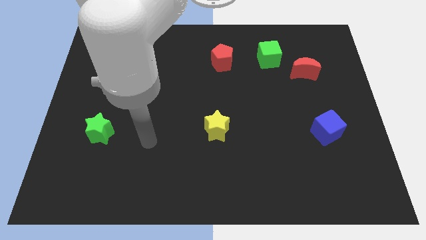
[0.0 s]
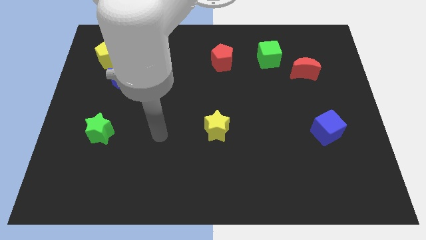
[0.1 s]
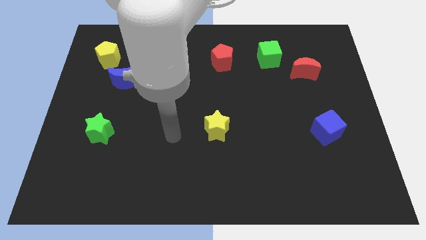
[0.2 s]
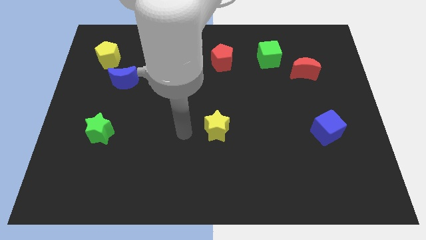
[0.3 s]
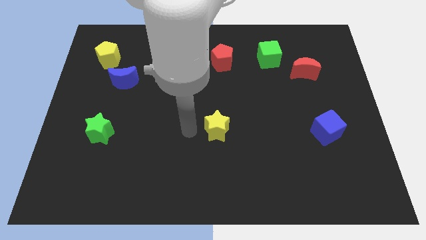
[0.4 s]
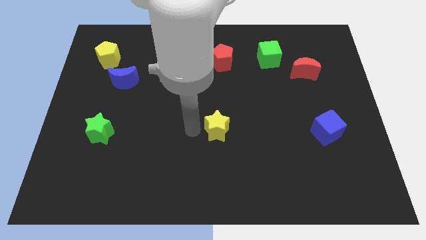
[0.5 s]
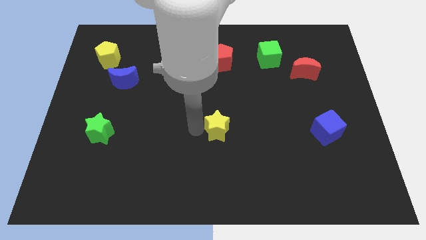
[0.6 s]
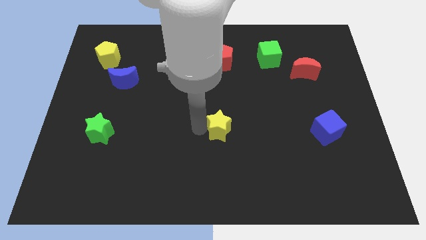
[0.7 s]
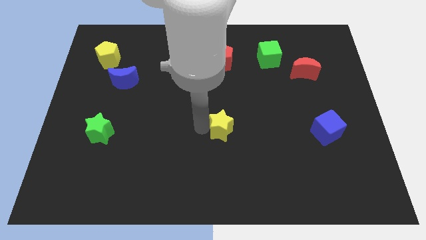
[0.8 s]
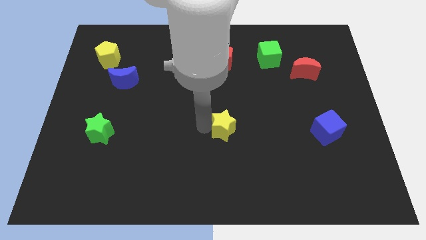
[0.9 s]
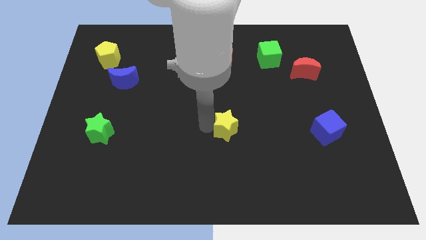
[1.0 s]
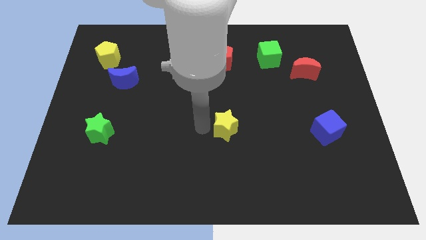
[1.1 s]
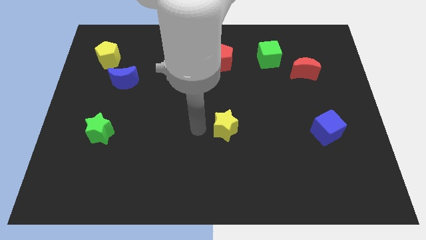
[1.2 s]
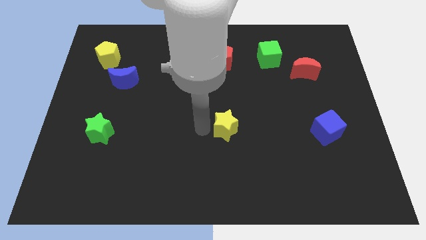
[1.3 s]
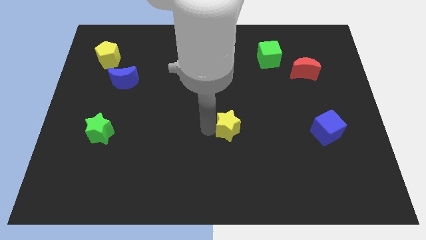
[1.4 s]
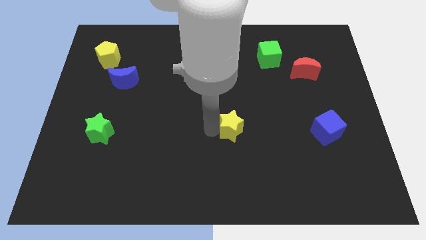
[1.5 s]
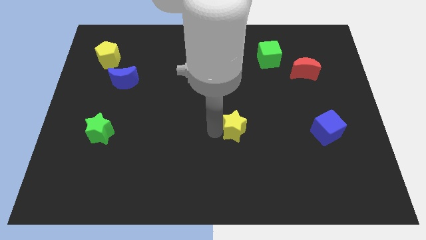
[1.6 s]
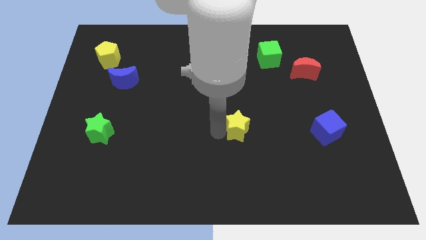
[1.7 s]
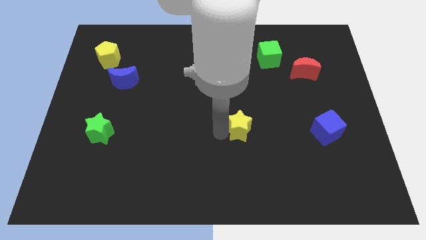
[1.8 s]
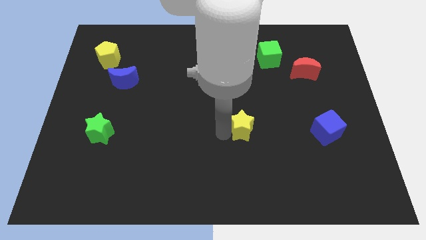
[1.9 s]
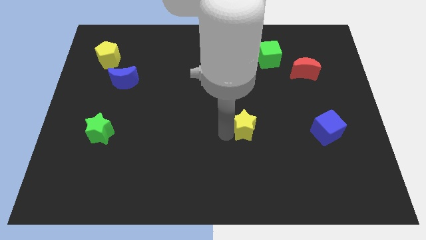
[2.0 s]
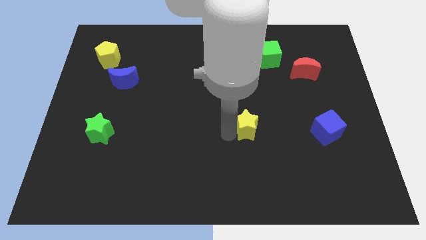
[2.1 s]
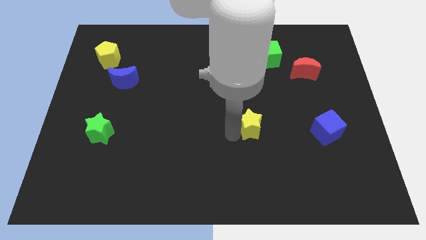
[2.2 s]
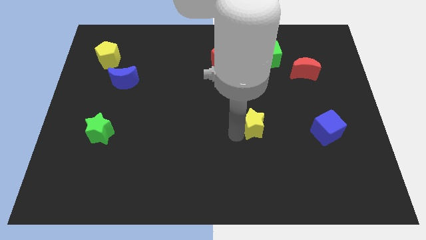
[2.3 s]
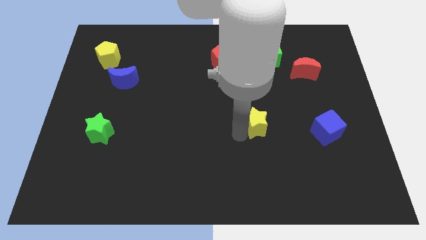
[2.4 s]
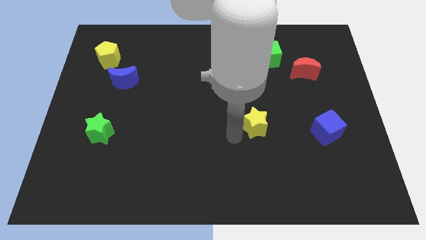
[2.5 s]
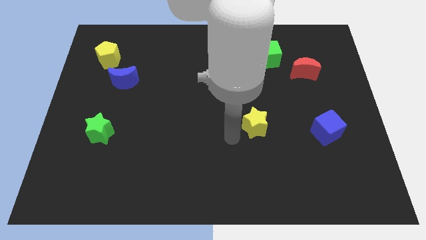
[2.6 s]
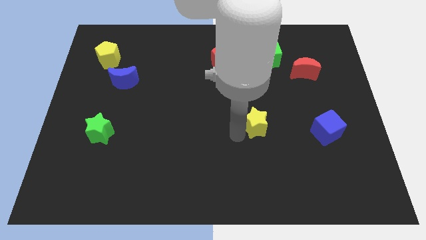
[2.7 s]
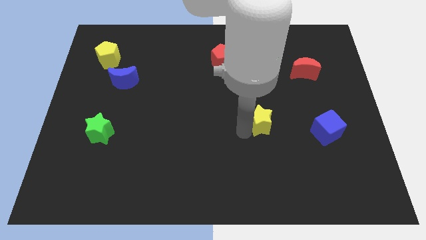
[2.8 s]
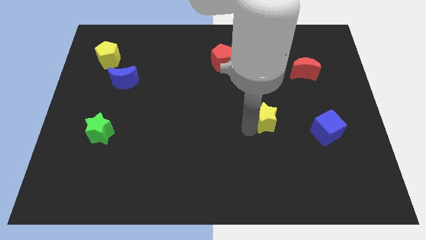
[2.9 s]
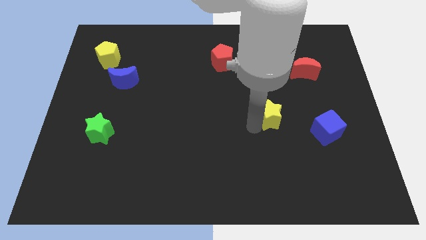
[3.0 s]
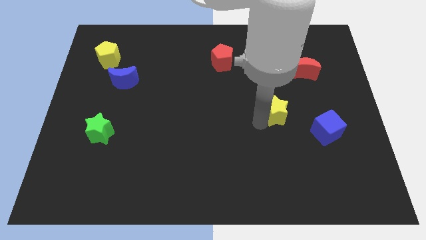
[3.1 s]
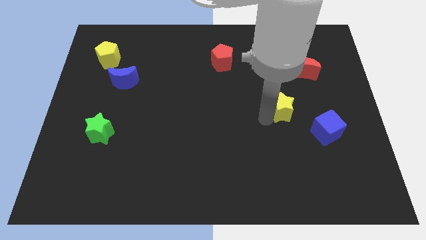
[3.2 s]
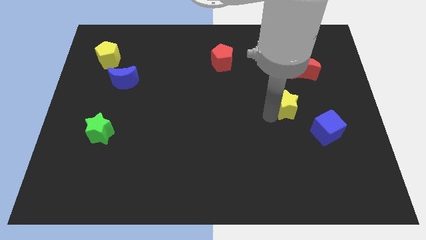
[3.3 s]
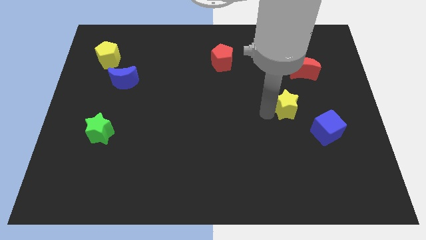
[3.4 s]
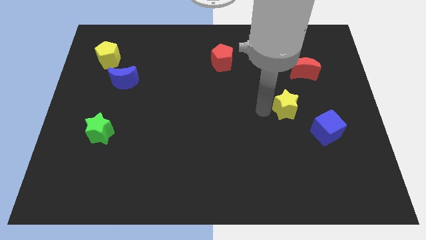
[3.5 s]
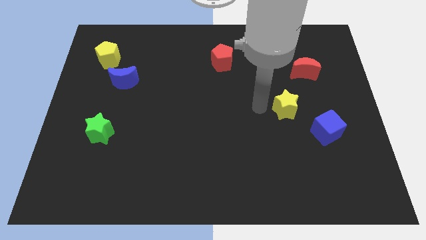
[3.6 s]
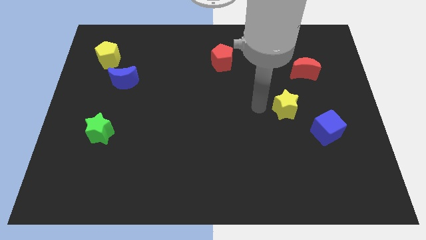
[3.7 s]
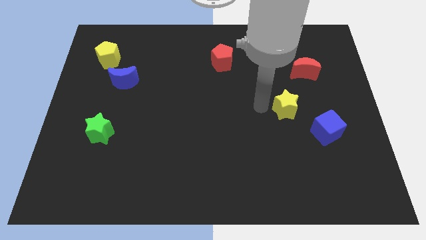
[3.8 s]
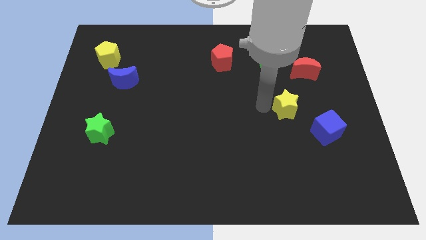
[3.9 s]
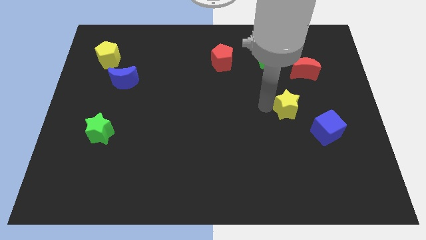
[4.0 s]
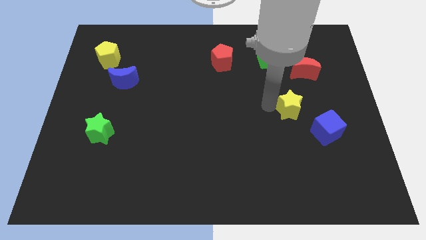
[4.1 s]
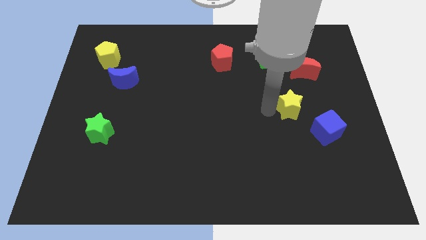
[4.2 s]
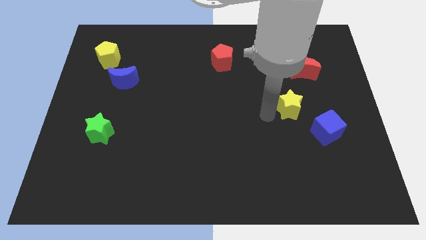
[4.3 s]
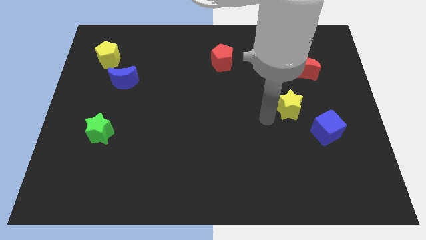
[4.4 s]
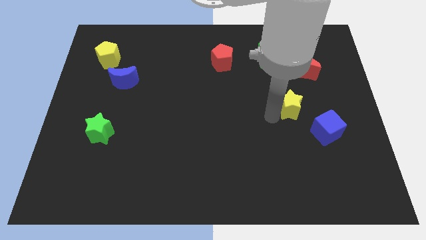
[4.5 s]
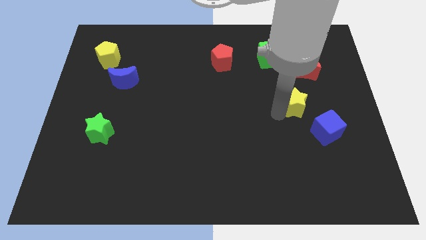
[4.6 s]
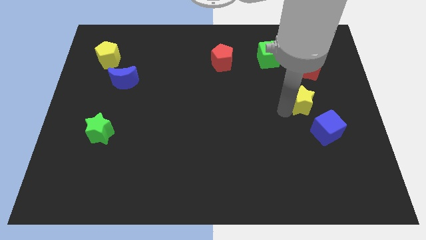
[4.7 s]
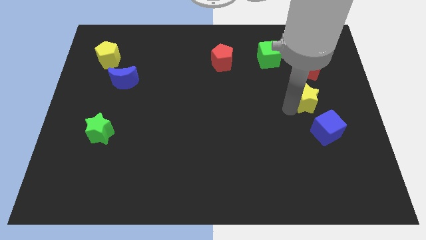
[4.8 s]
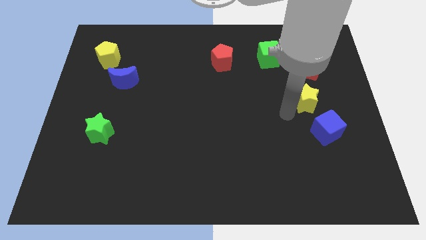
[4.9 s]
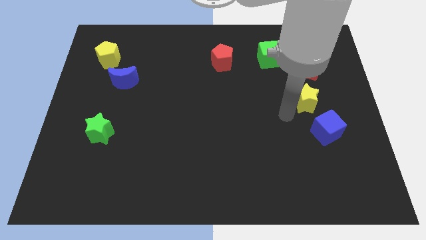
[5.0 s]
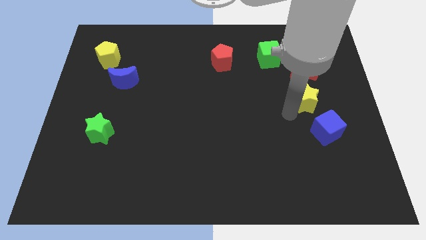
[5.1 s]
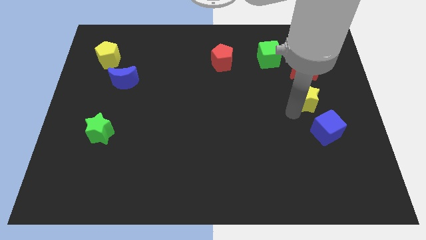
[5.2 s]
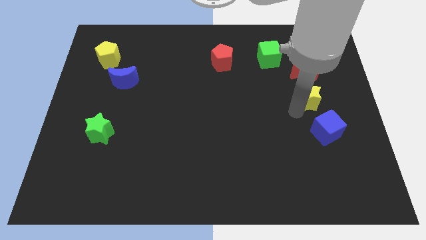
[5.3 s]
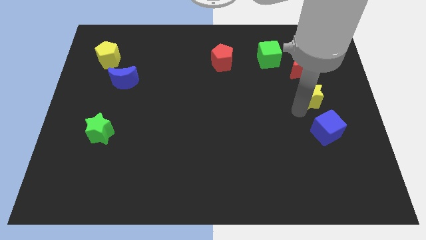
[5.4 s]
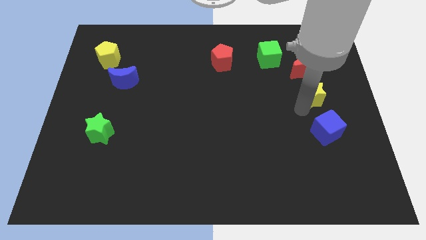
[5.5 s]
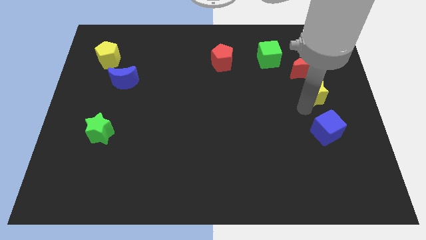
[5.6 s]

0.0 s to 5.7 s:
push the yellow star diagonally down and to the right of the red moon

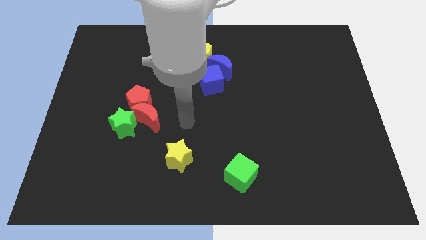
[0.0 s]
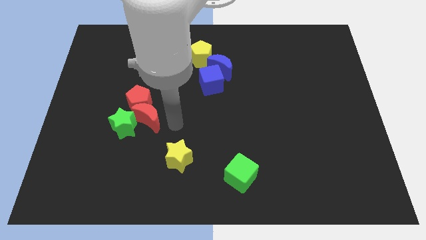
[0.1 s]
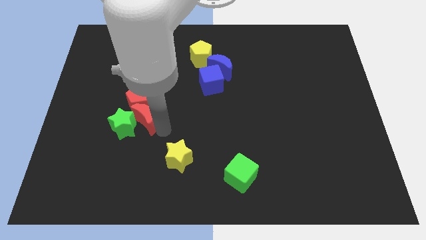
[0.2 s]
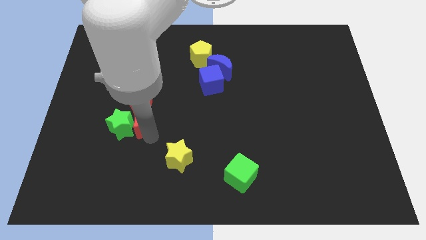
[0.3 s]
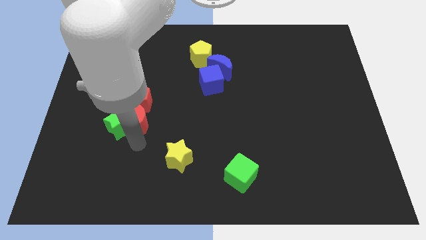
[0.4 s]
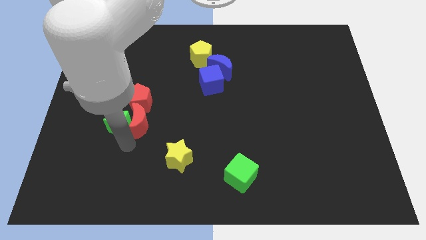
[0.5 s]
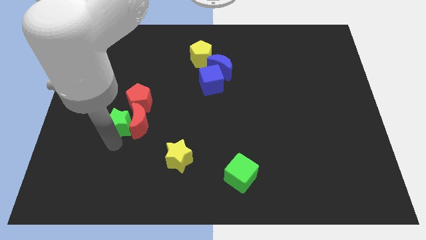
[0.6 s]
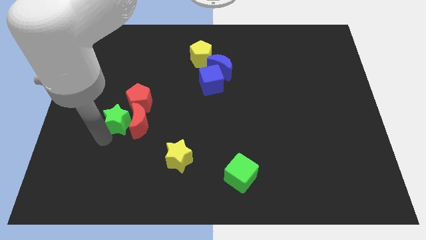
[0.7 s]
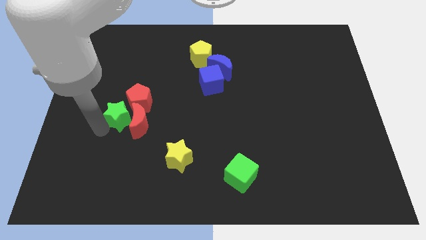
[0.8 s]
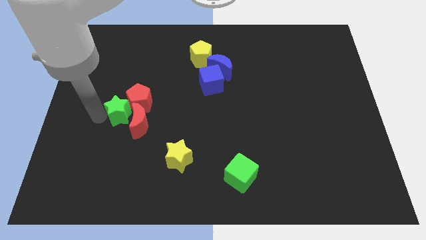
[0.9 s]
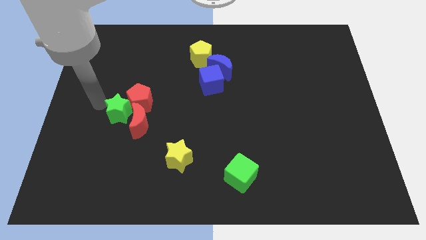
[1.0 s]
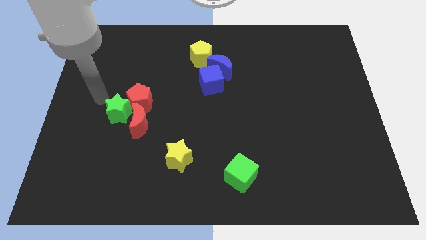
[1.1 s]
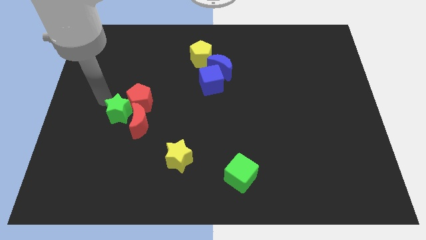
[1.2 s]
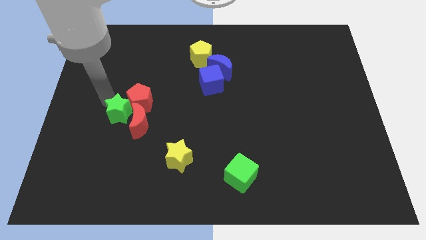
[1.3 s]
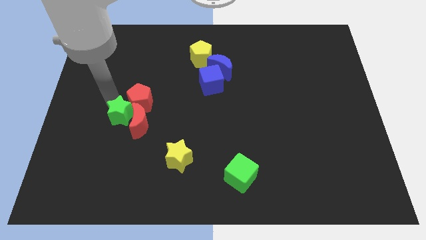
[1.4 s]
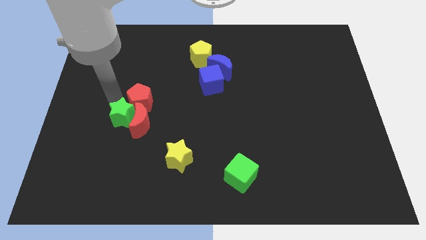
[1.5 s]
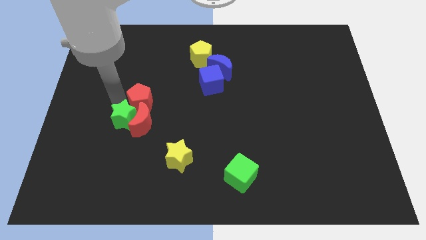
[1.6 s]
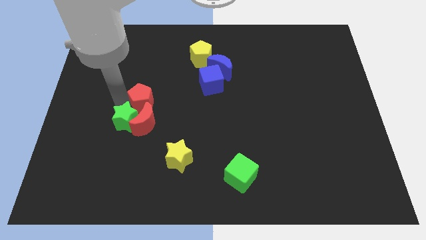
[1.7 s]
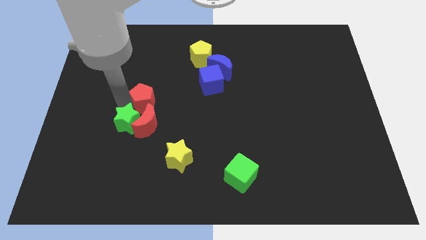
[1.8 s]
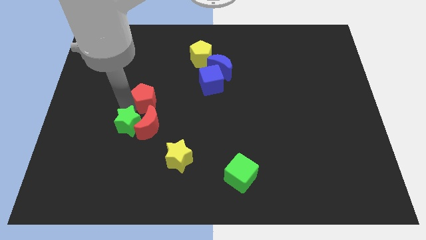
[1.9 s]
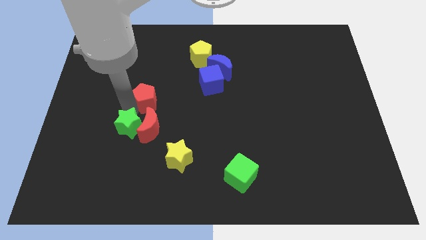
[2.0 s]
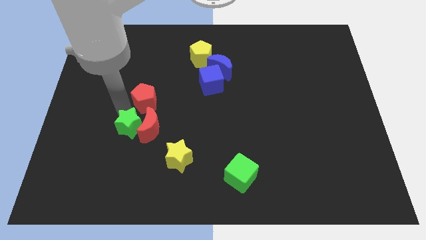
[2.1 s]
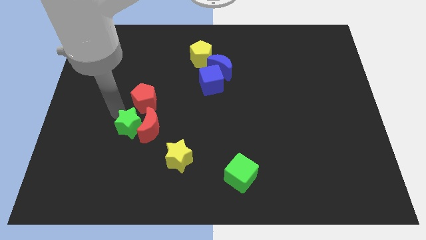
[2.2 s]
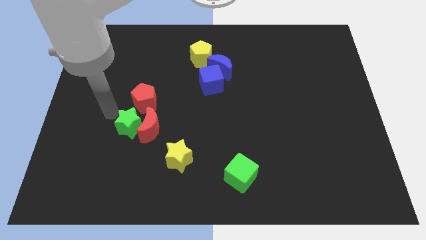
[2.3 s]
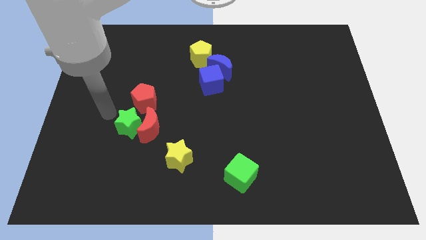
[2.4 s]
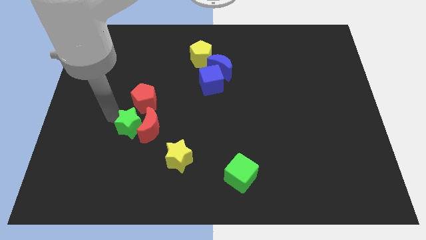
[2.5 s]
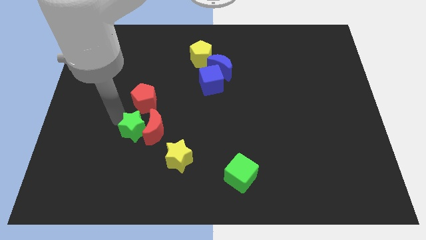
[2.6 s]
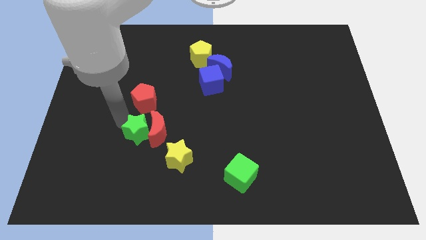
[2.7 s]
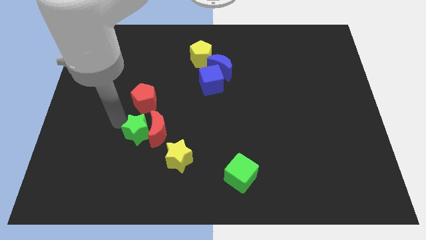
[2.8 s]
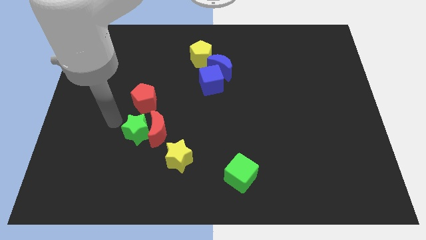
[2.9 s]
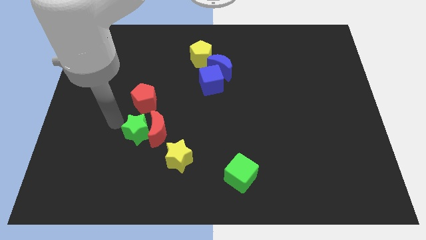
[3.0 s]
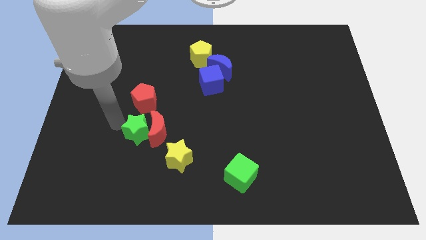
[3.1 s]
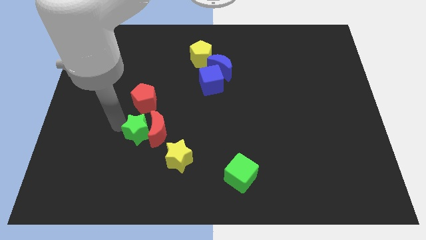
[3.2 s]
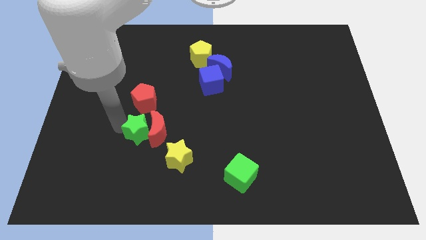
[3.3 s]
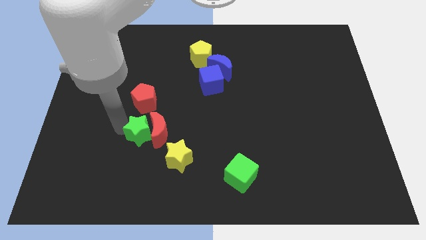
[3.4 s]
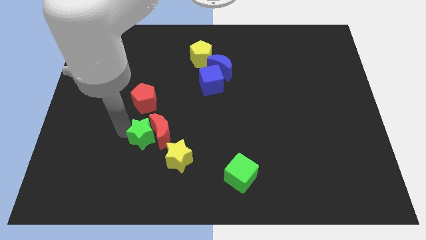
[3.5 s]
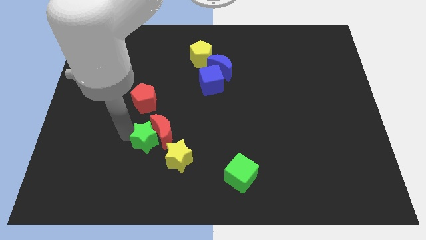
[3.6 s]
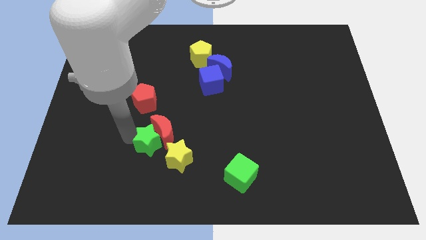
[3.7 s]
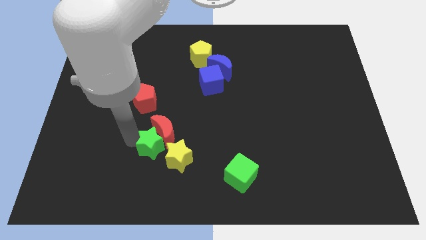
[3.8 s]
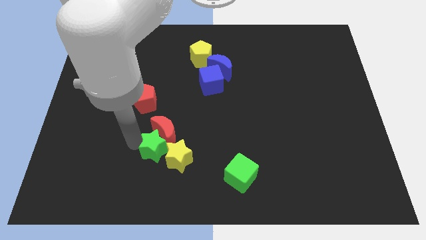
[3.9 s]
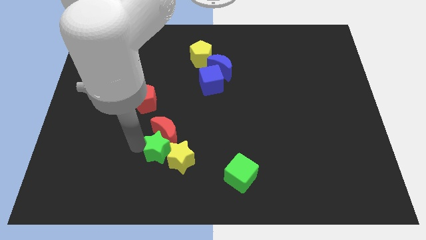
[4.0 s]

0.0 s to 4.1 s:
push the green star diagonally down and to the right of the red moon
